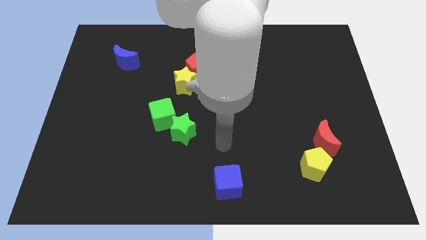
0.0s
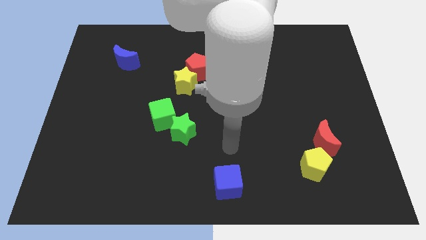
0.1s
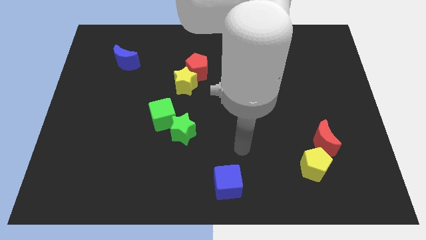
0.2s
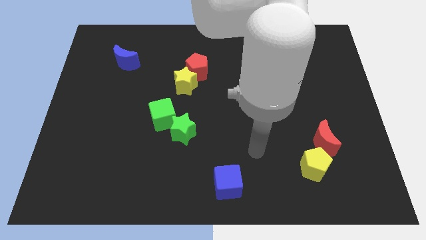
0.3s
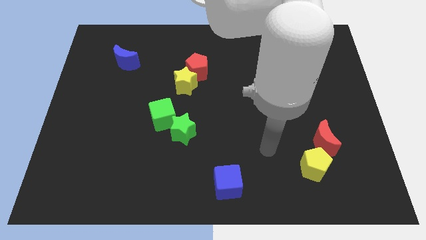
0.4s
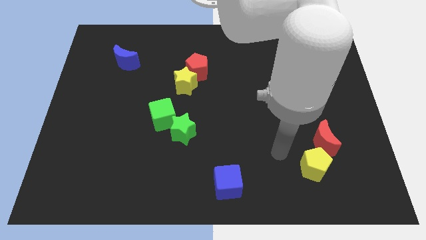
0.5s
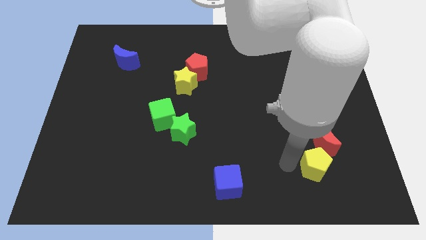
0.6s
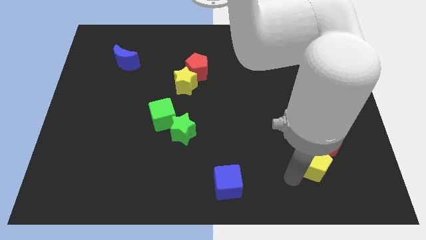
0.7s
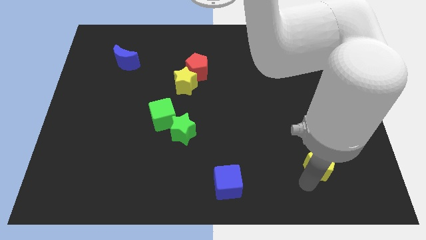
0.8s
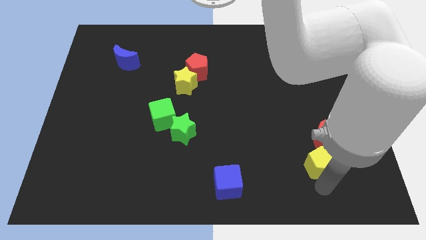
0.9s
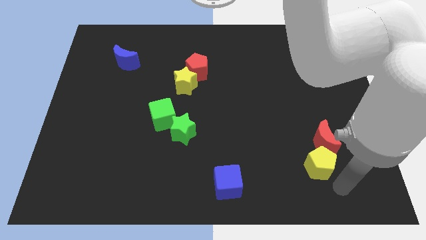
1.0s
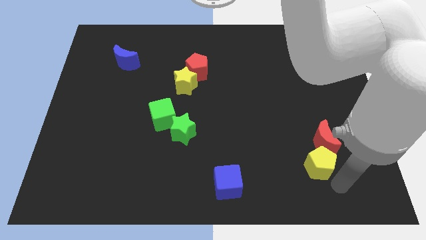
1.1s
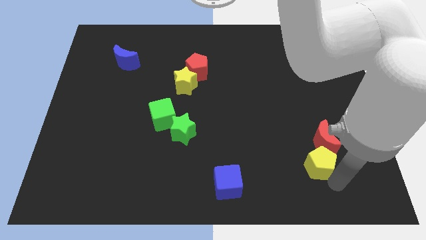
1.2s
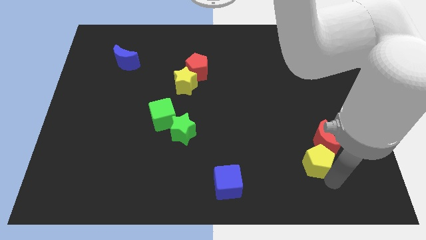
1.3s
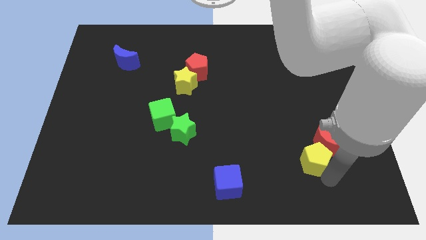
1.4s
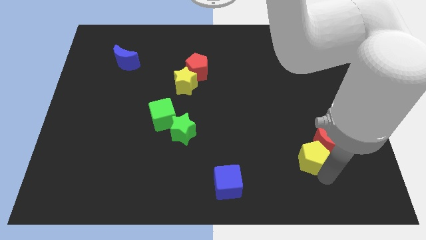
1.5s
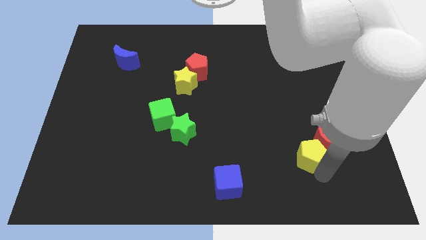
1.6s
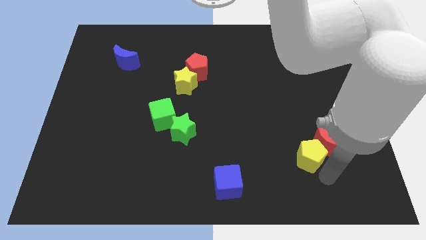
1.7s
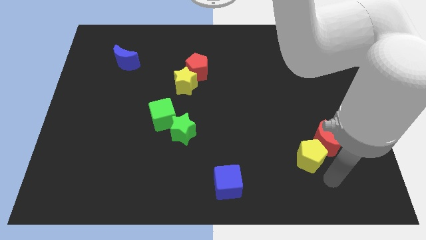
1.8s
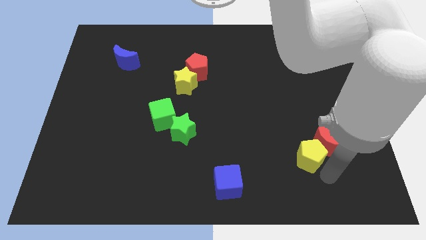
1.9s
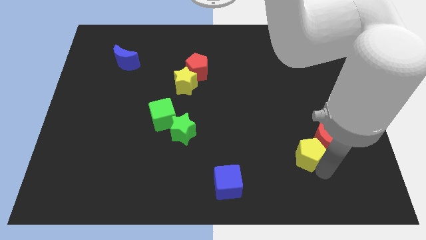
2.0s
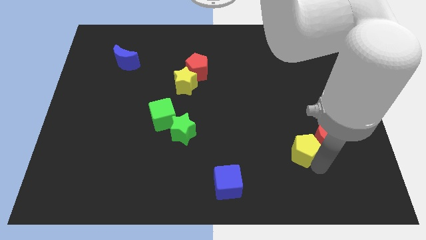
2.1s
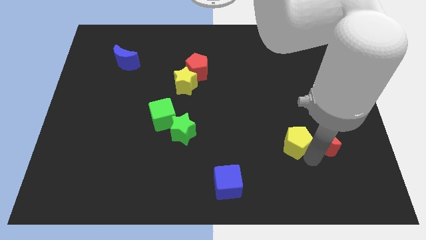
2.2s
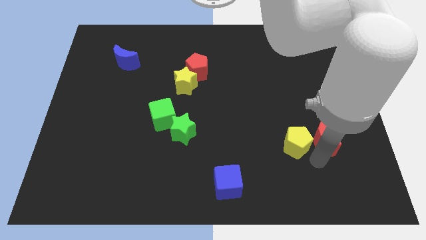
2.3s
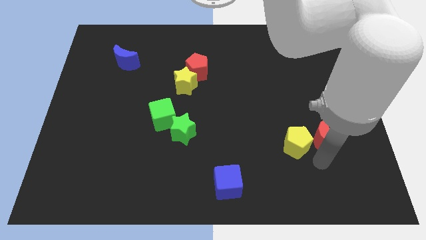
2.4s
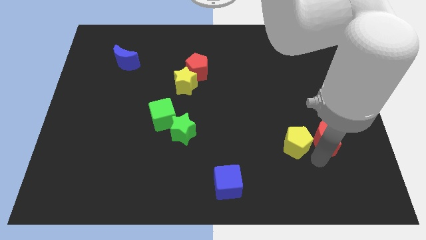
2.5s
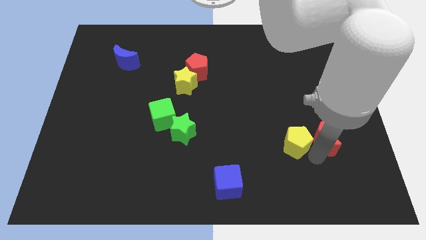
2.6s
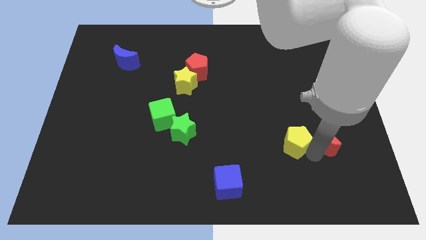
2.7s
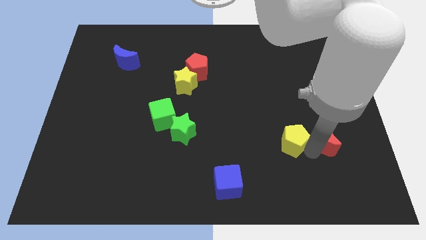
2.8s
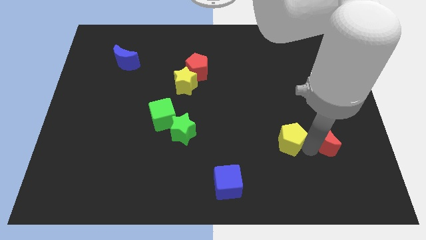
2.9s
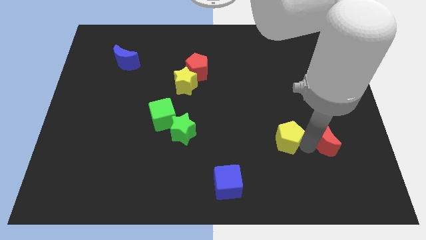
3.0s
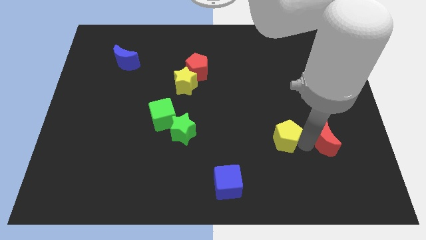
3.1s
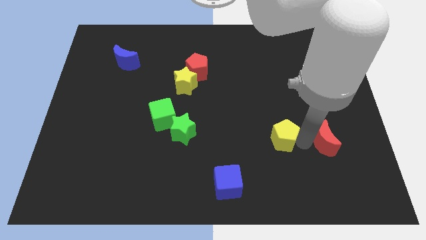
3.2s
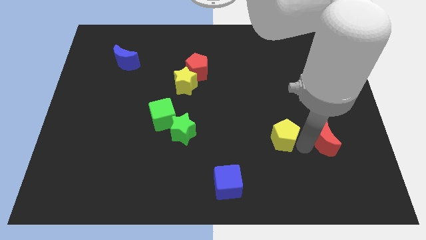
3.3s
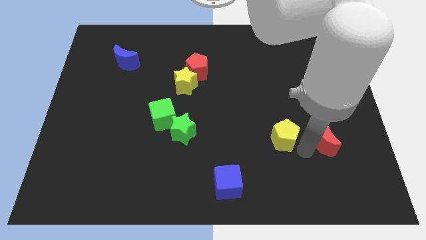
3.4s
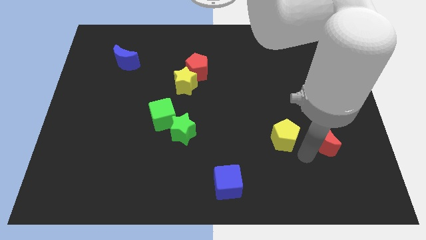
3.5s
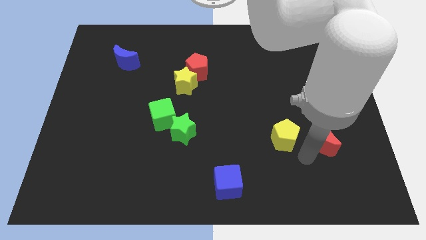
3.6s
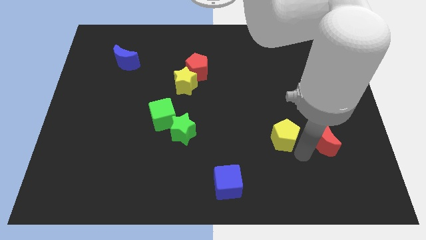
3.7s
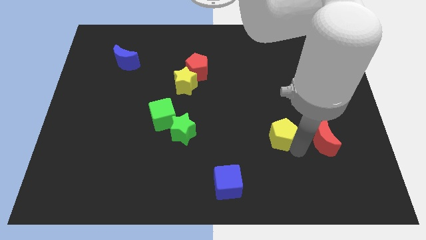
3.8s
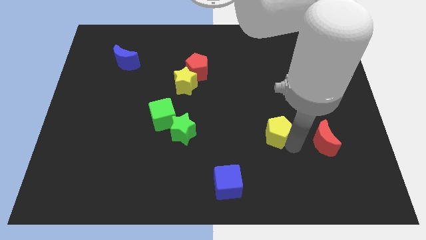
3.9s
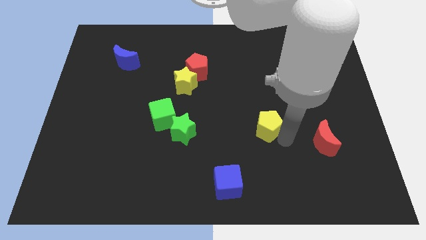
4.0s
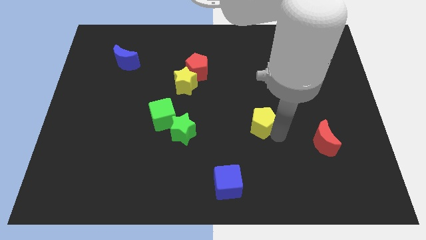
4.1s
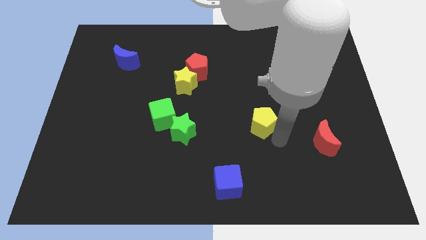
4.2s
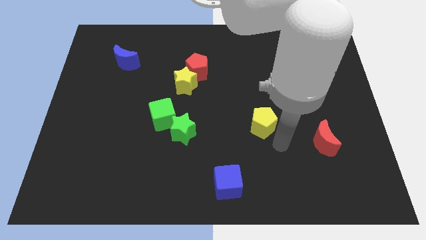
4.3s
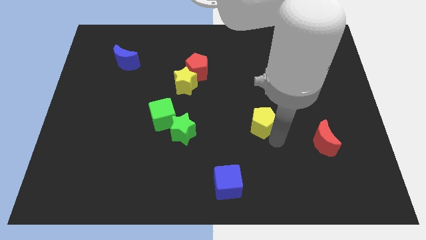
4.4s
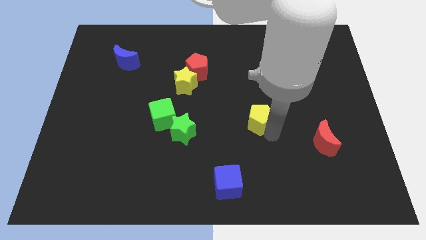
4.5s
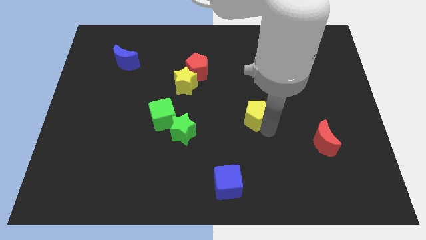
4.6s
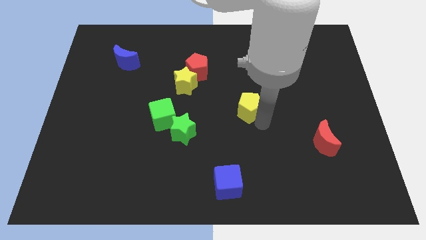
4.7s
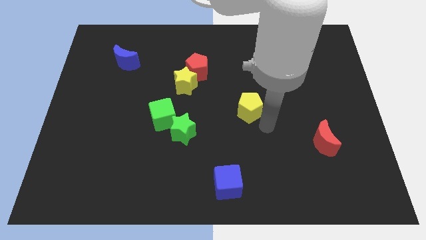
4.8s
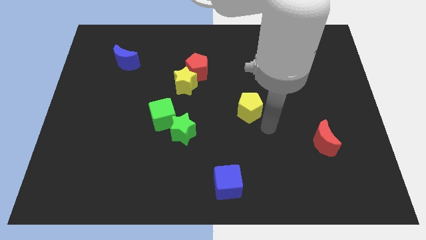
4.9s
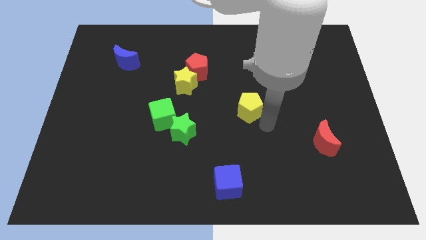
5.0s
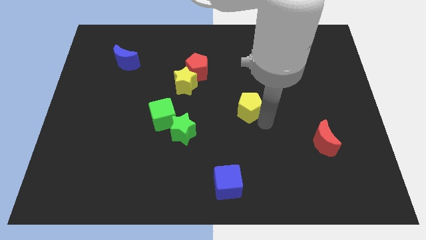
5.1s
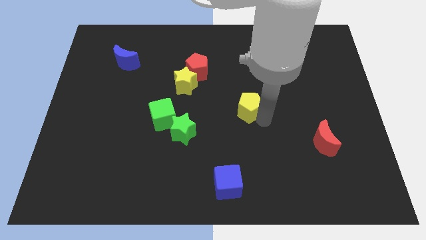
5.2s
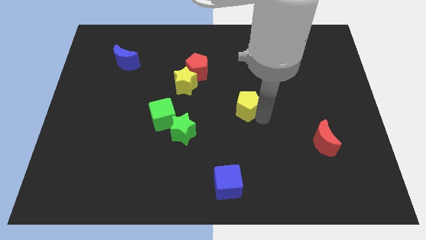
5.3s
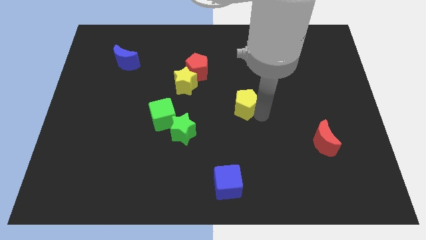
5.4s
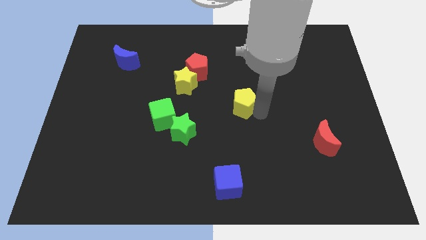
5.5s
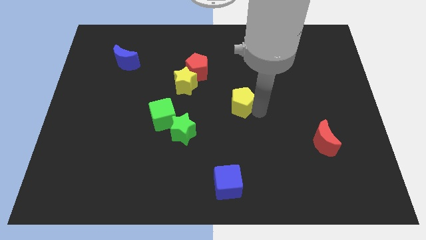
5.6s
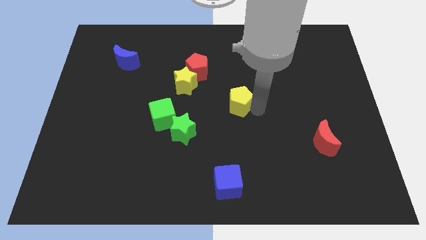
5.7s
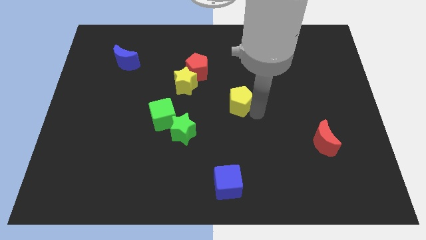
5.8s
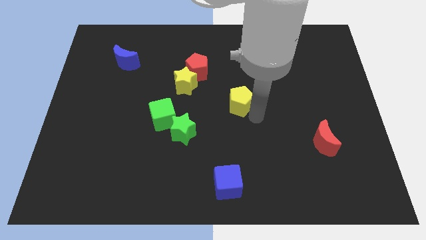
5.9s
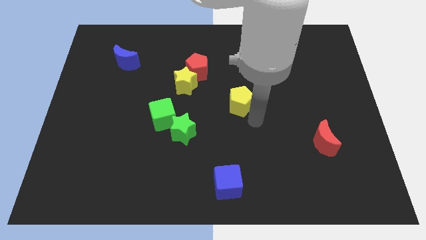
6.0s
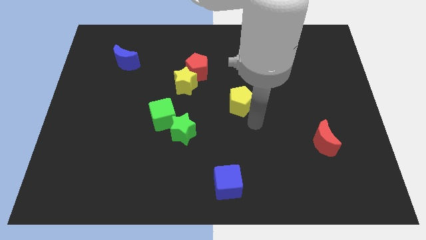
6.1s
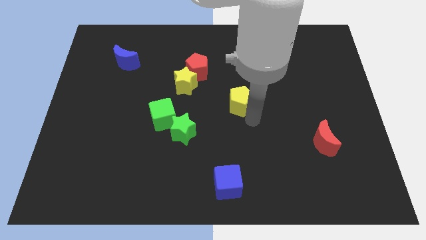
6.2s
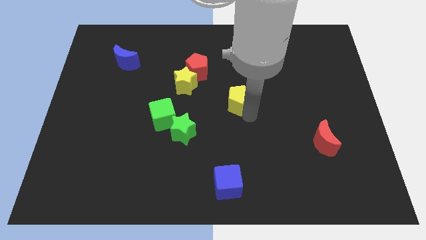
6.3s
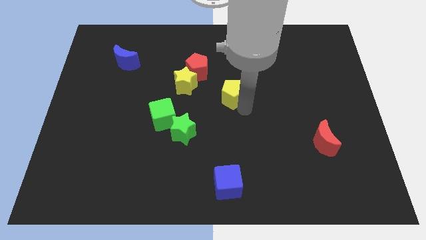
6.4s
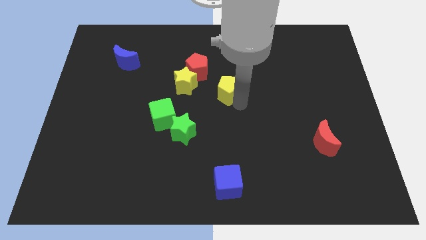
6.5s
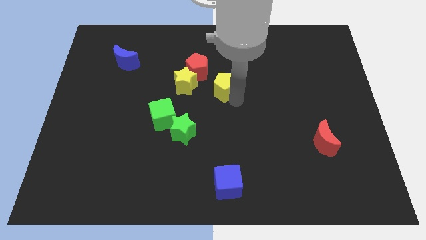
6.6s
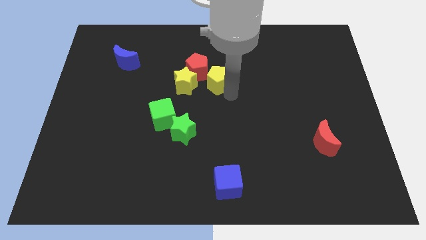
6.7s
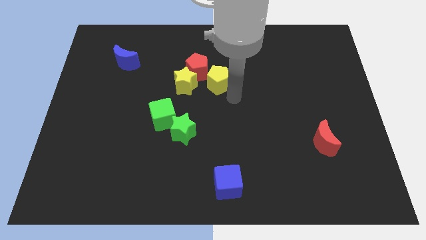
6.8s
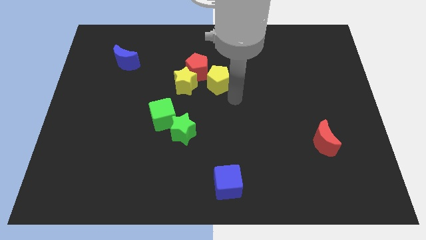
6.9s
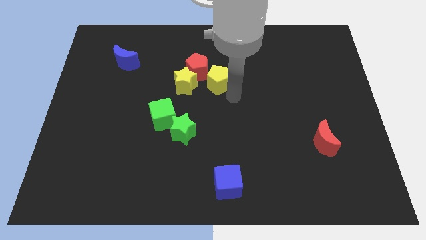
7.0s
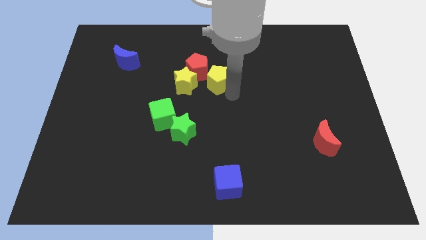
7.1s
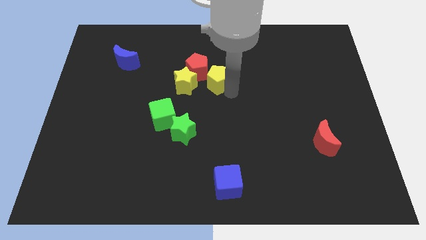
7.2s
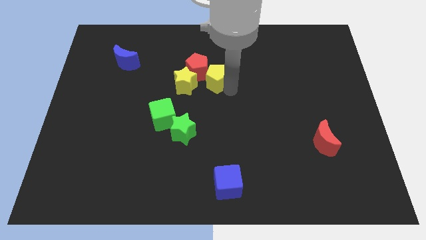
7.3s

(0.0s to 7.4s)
put the yellow pentagon to the top right side of the yellow star

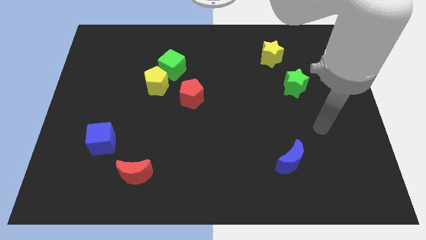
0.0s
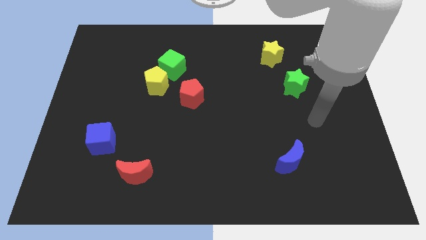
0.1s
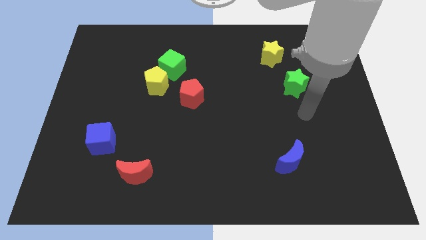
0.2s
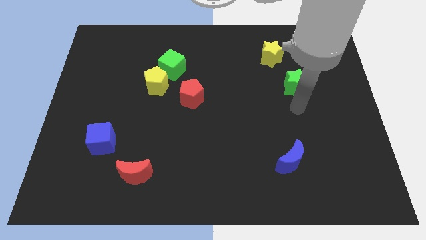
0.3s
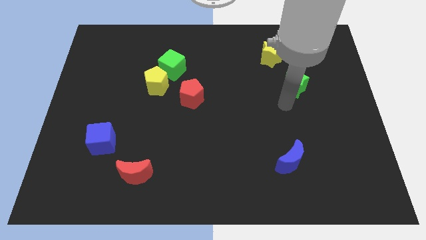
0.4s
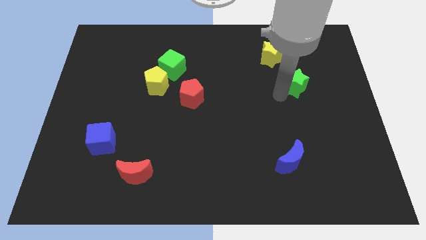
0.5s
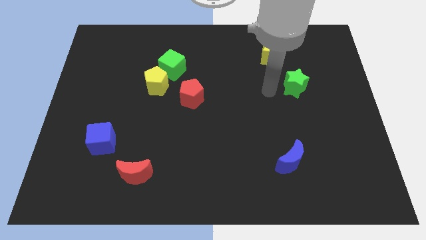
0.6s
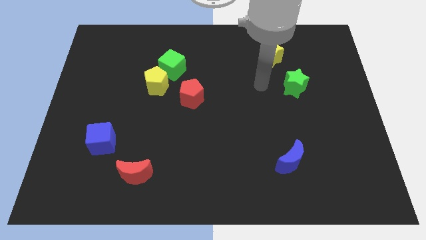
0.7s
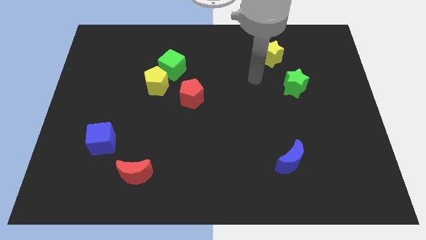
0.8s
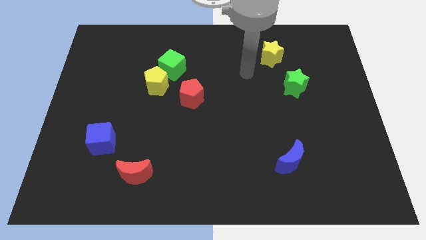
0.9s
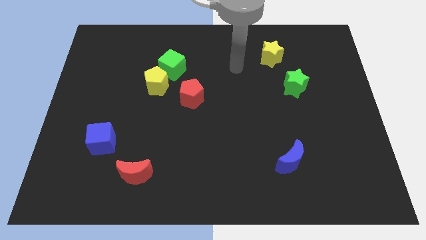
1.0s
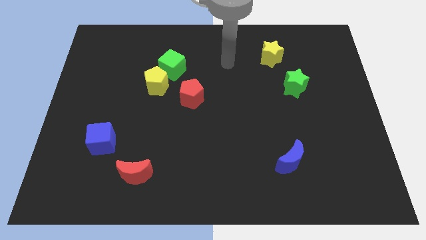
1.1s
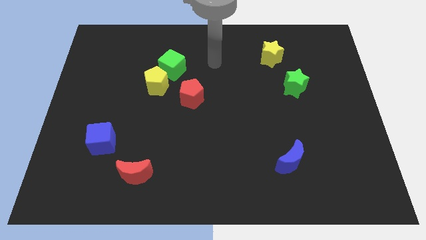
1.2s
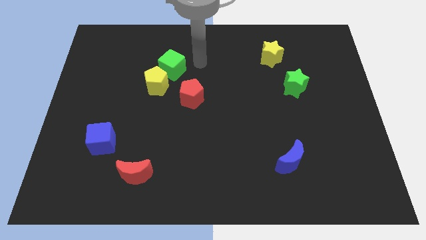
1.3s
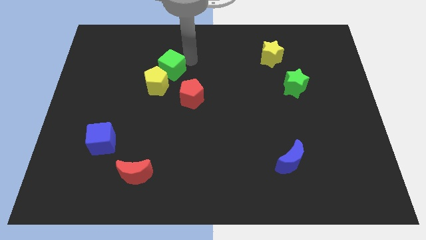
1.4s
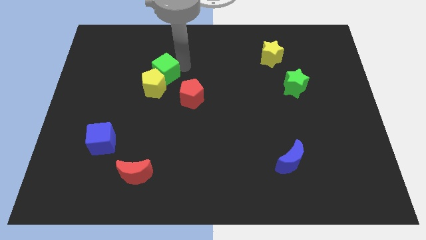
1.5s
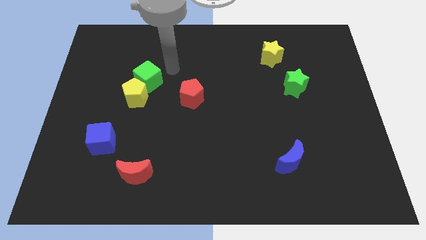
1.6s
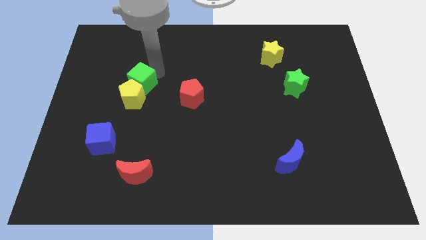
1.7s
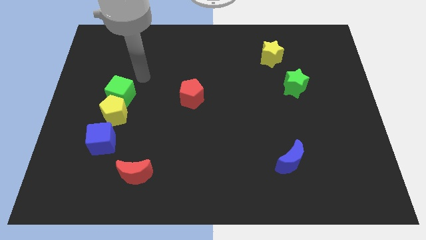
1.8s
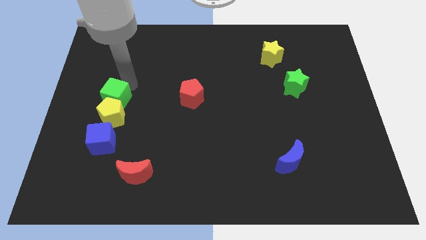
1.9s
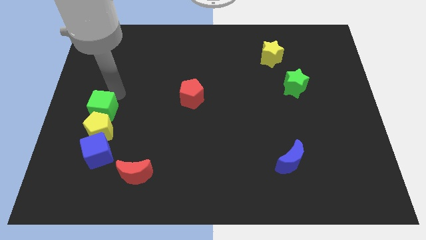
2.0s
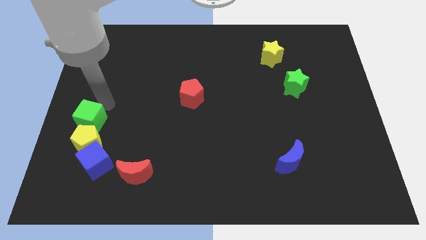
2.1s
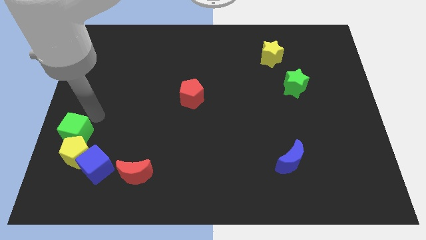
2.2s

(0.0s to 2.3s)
push the yellow pentagon just left of the red moon
